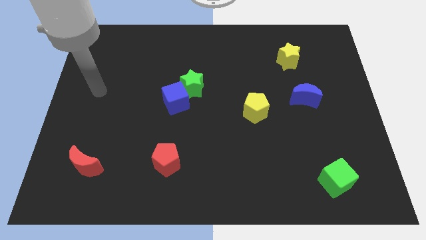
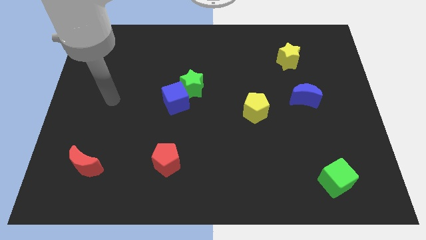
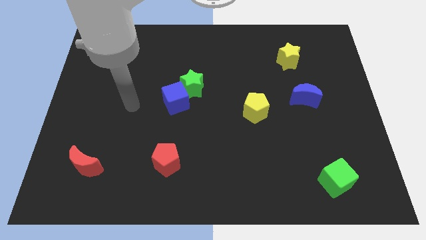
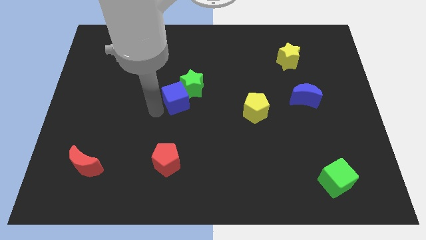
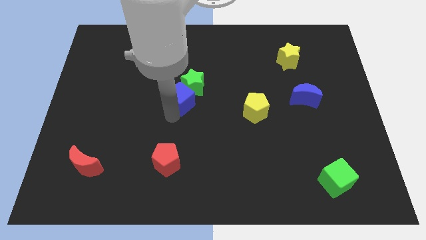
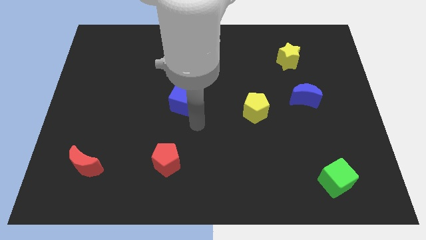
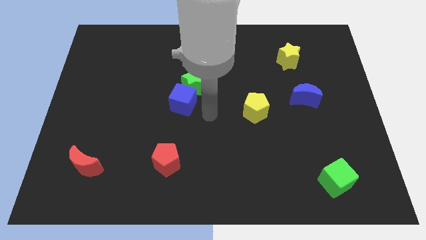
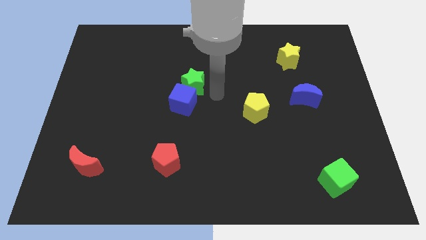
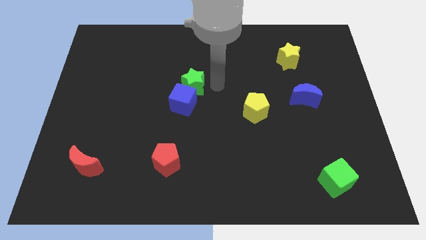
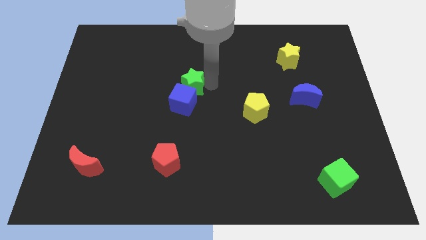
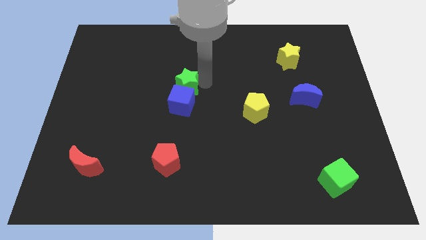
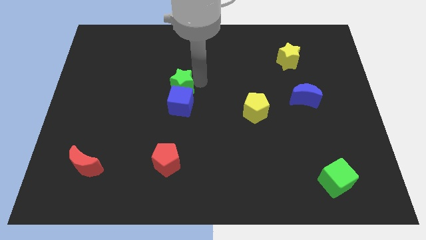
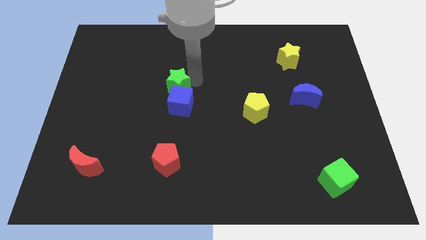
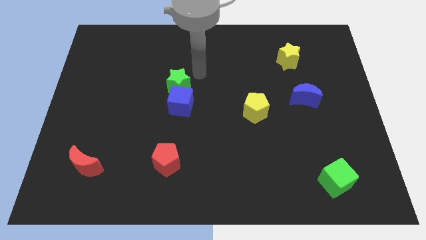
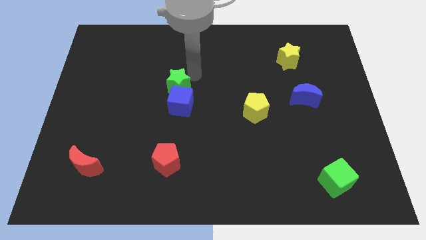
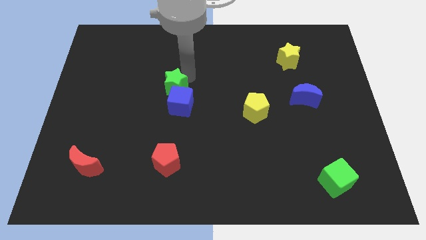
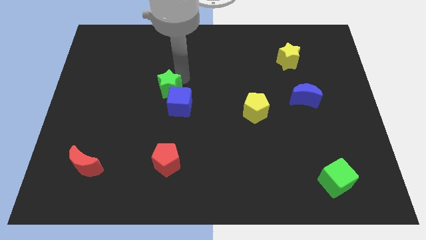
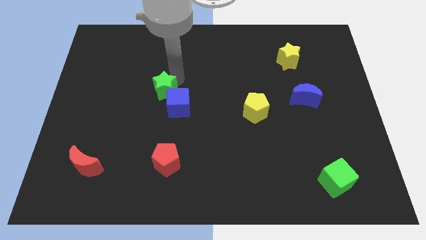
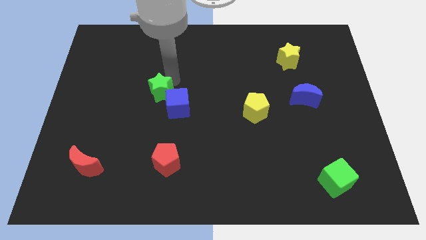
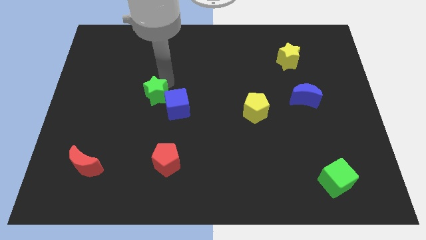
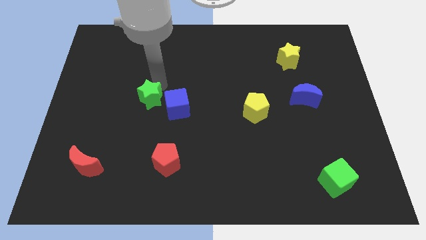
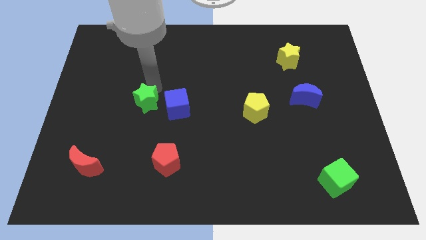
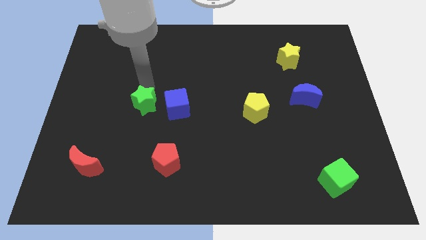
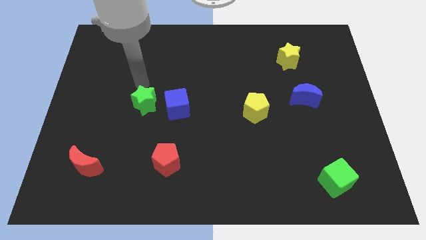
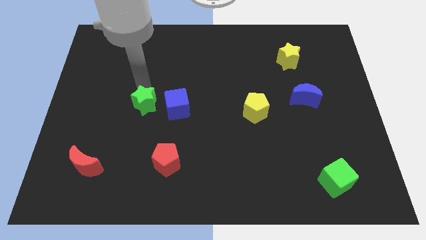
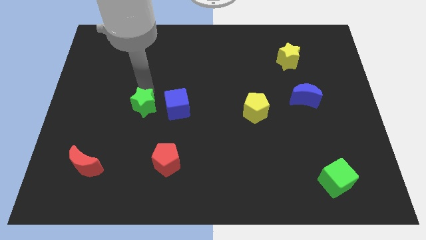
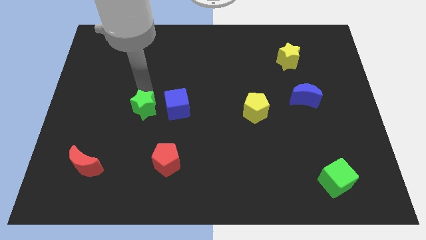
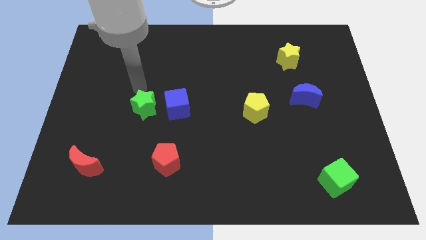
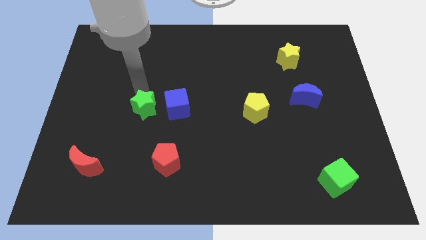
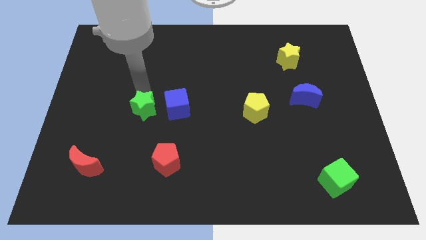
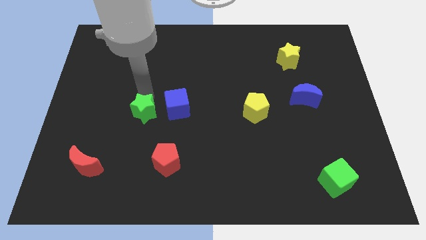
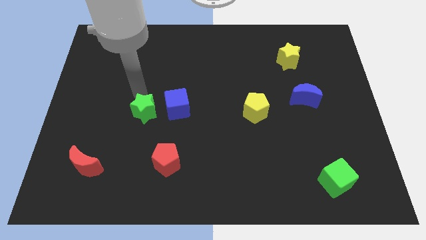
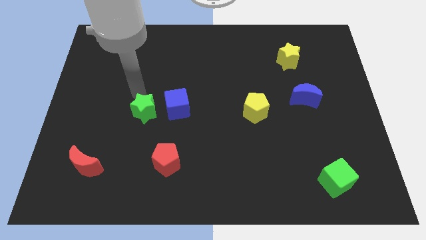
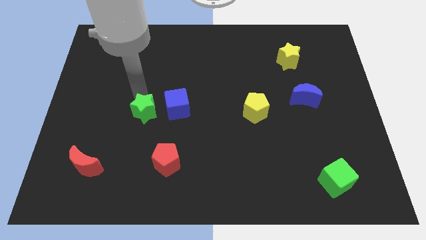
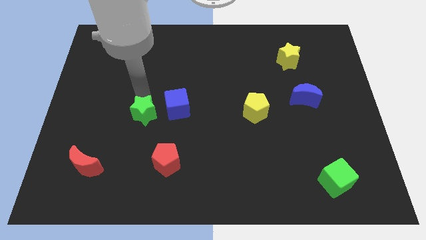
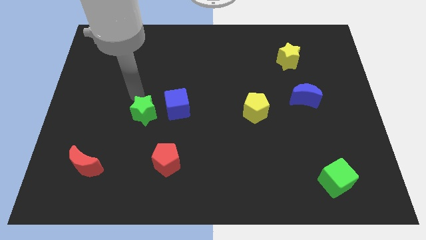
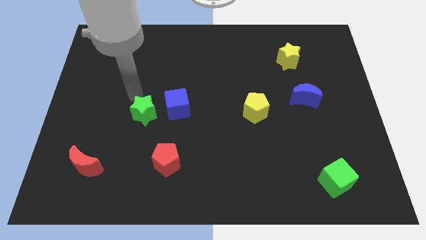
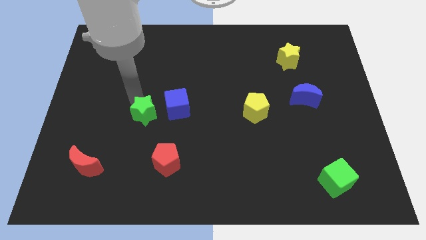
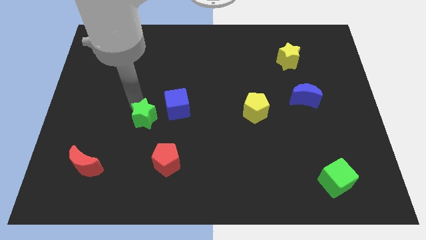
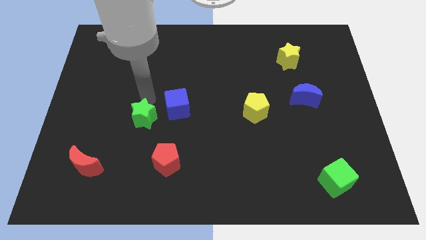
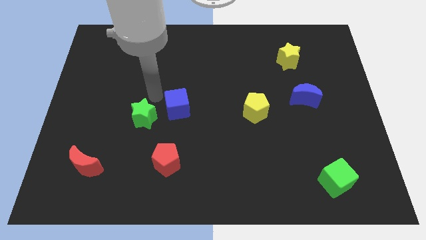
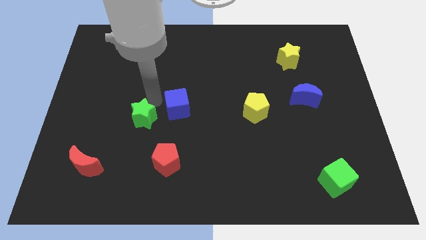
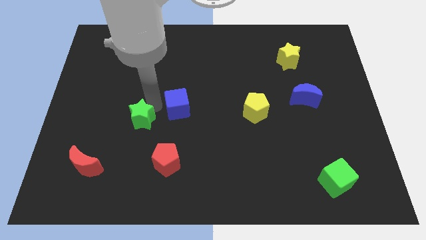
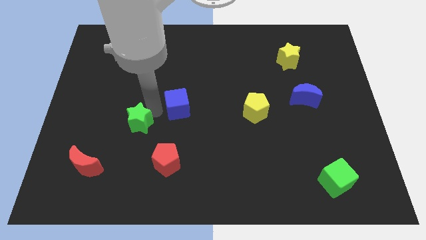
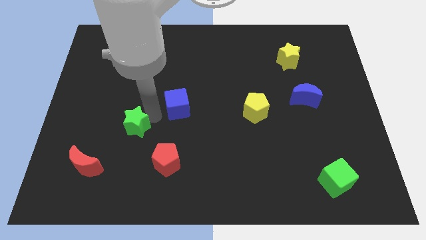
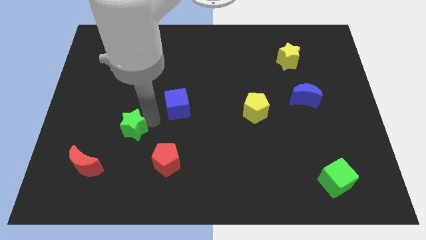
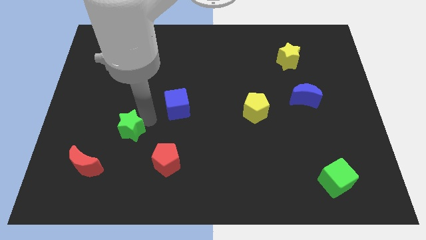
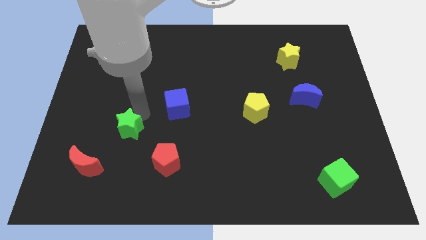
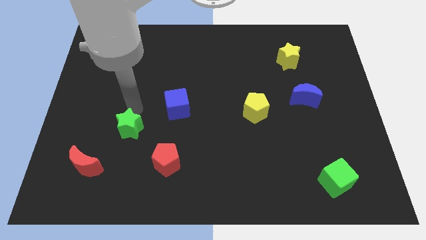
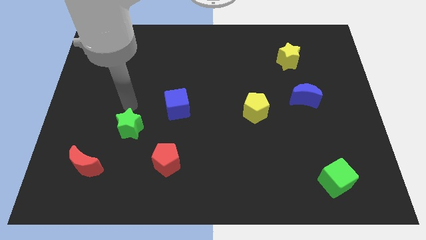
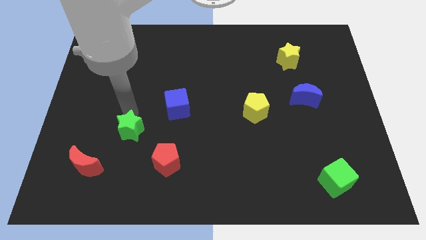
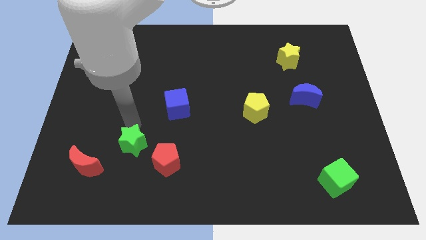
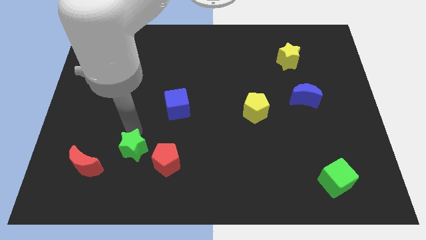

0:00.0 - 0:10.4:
slide the green star just right of the red moon

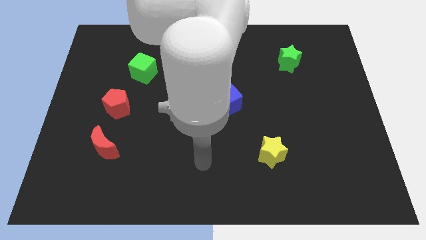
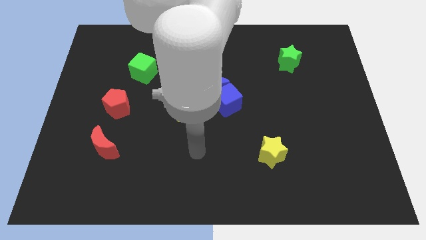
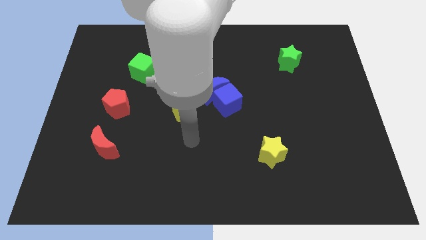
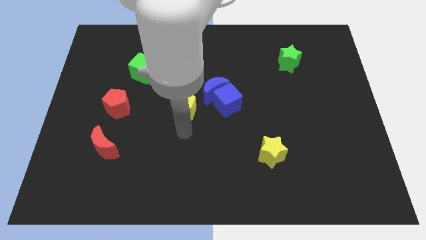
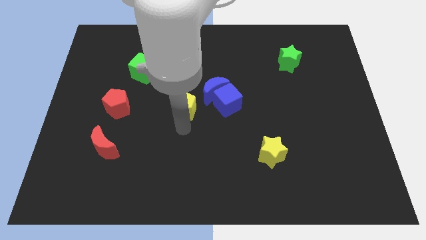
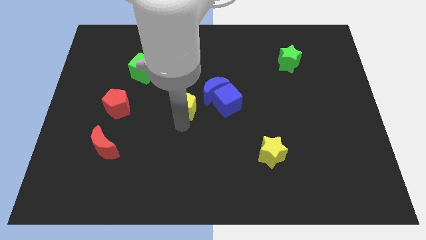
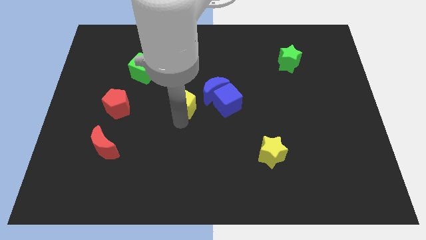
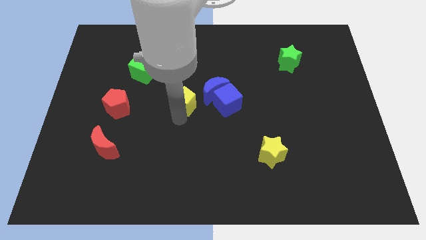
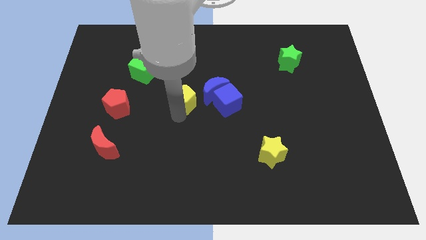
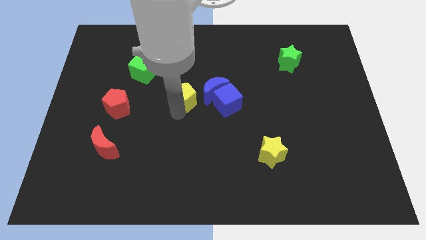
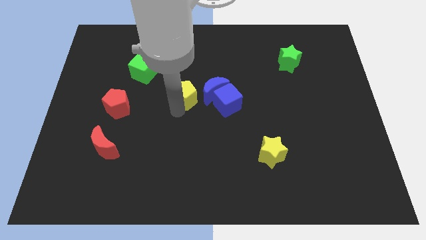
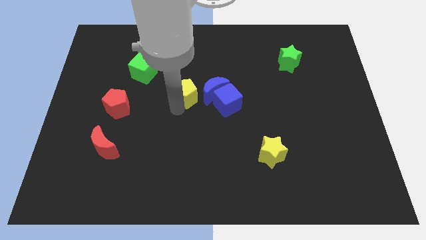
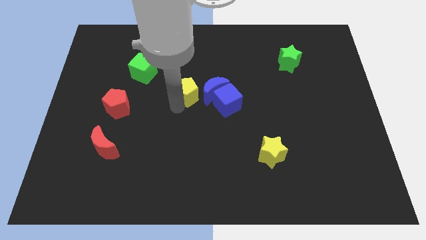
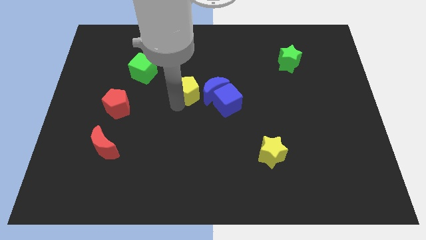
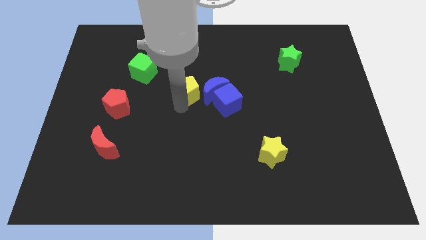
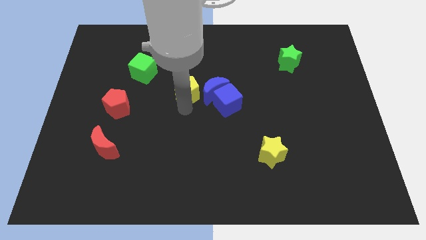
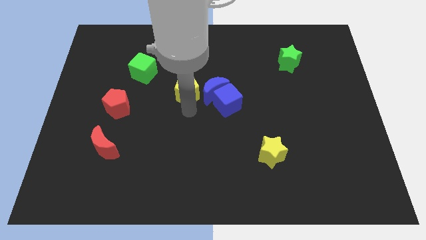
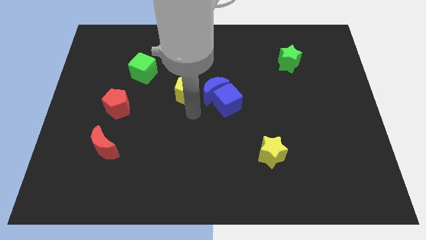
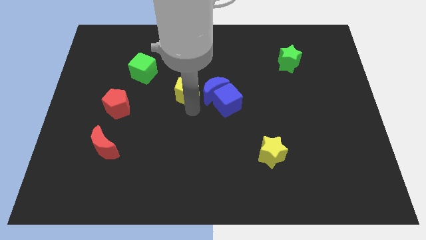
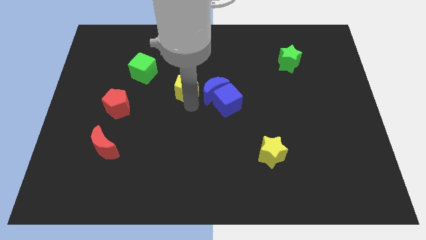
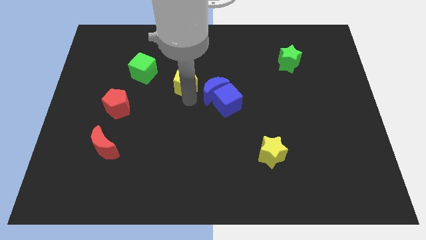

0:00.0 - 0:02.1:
put the yellow pentagon to the right of the green cube

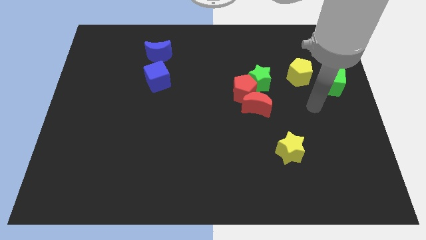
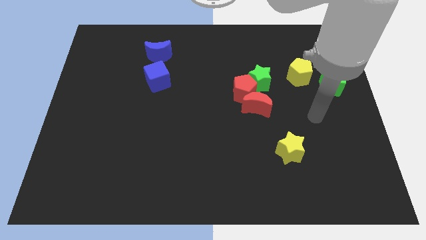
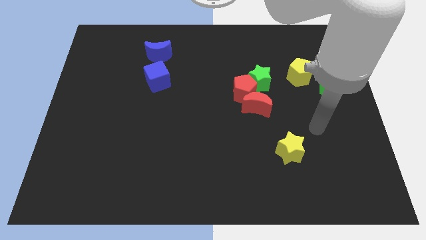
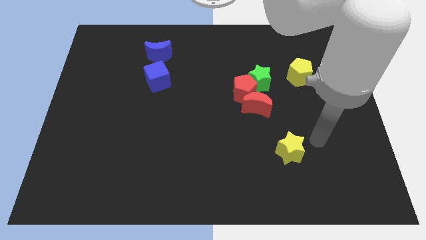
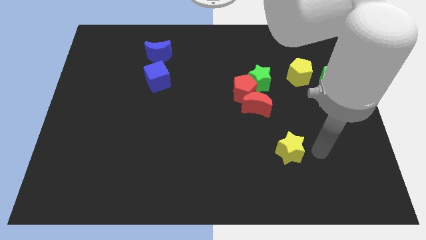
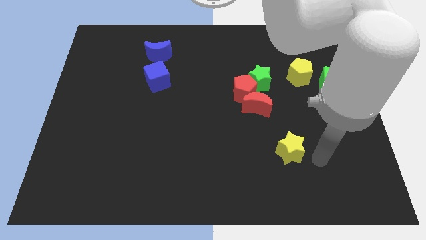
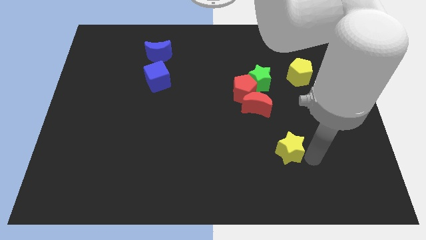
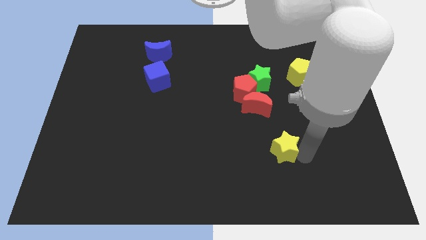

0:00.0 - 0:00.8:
put the yellow star to the bottom of the red moon
